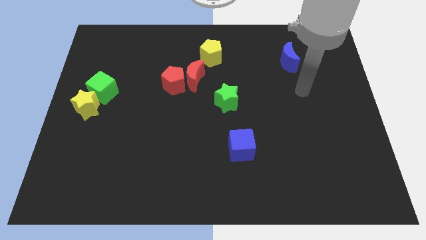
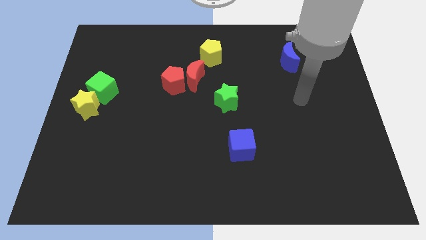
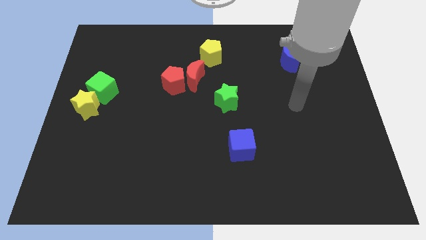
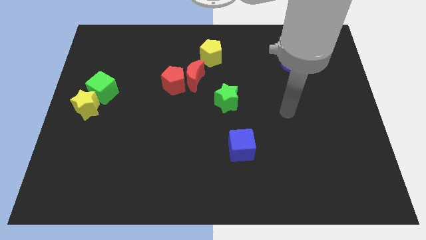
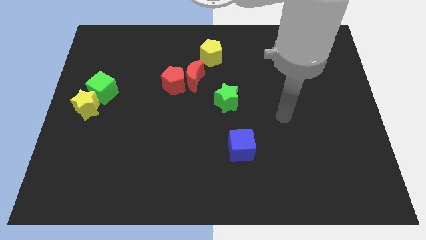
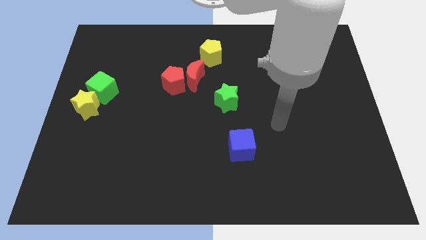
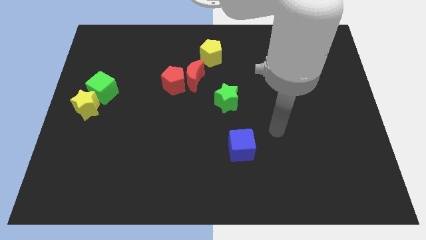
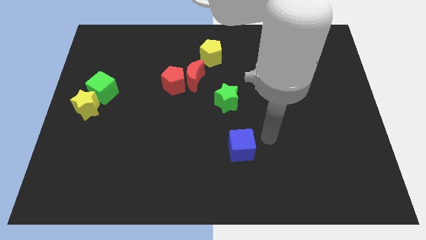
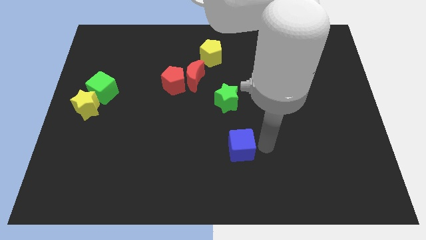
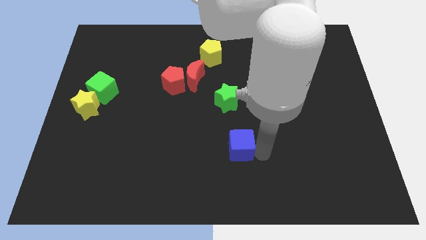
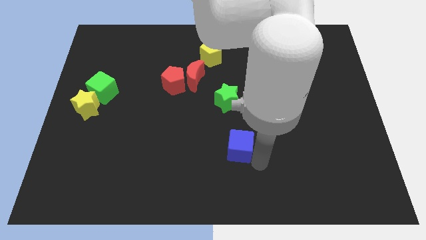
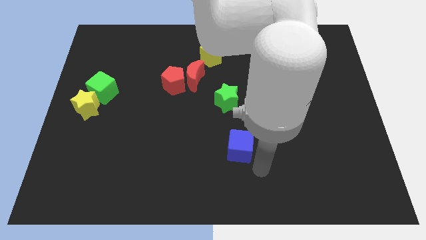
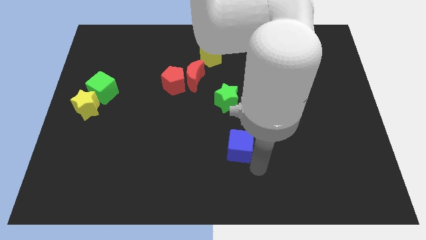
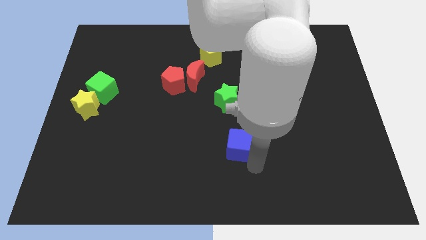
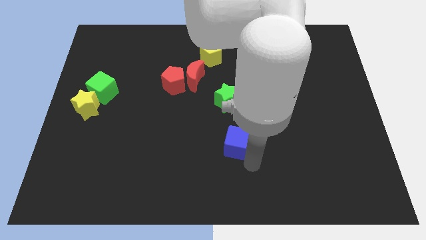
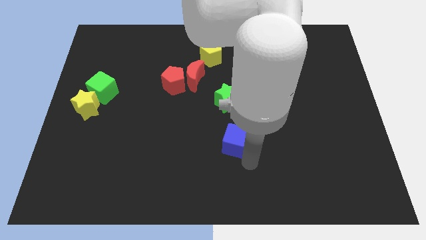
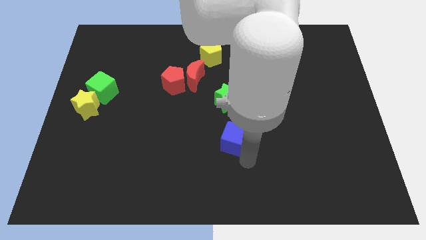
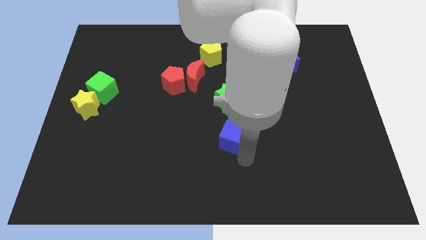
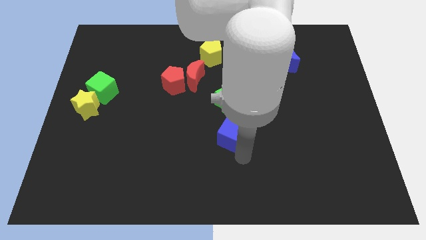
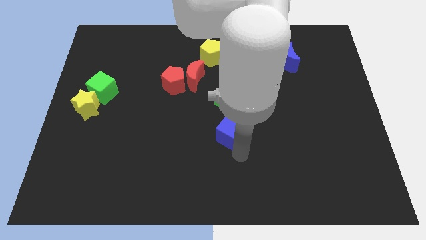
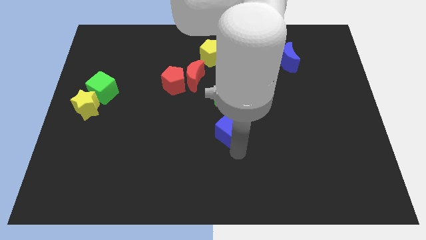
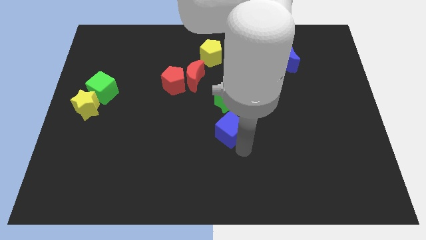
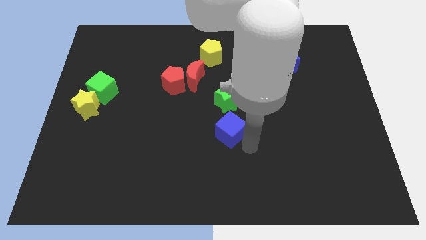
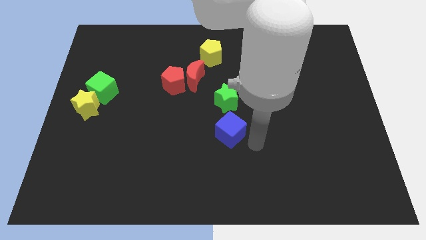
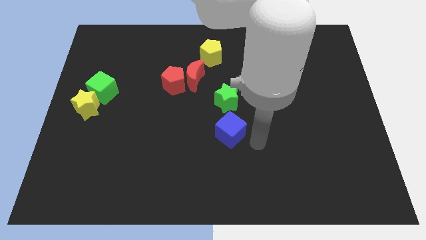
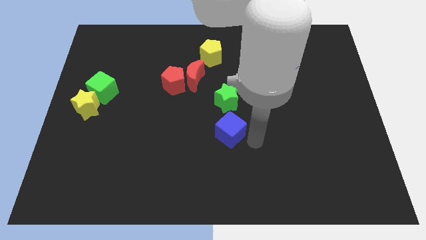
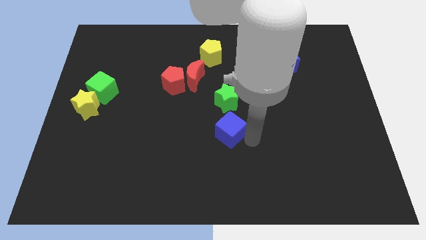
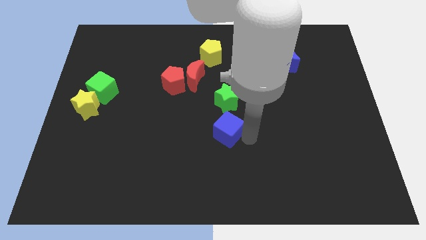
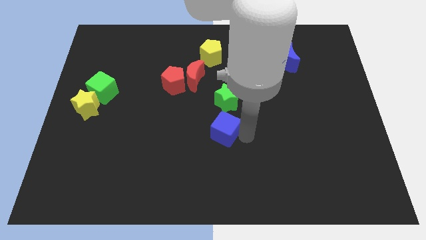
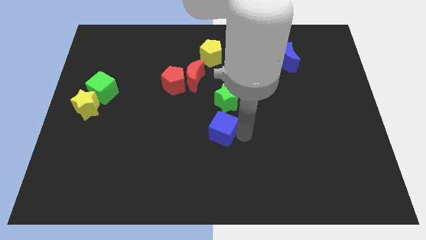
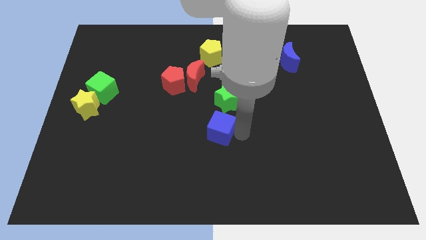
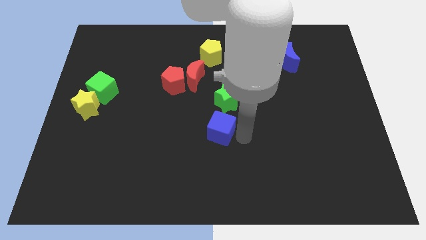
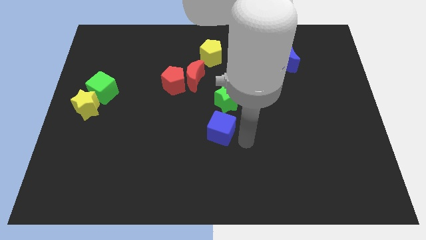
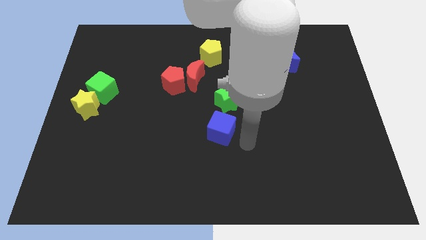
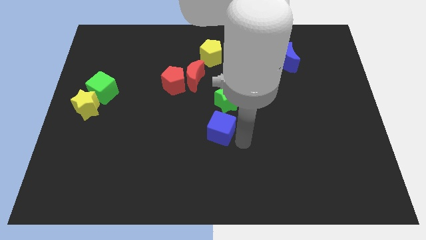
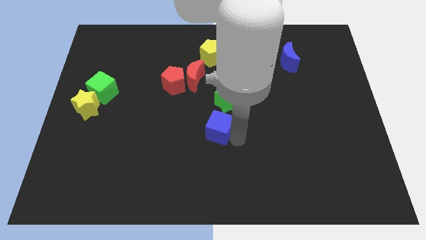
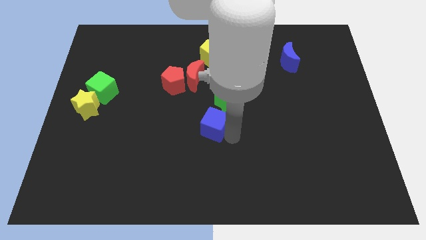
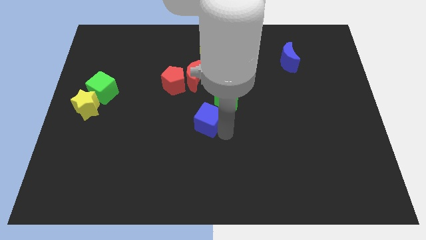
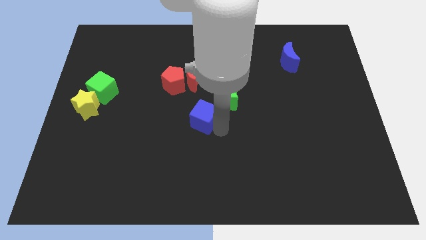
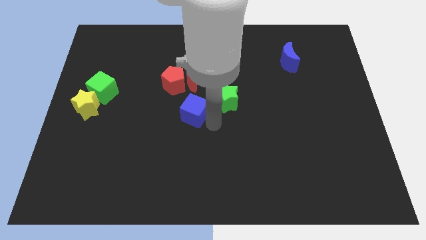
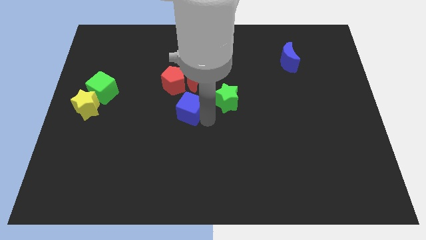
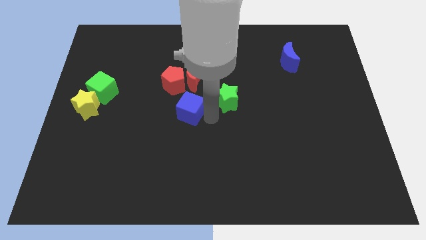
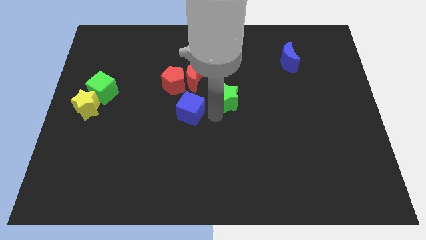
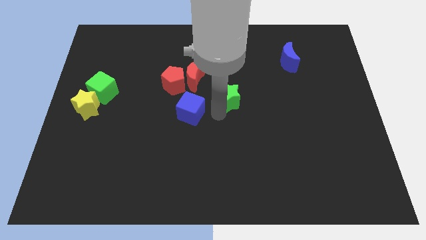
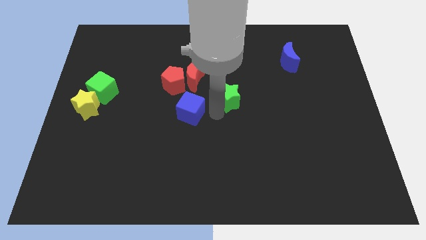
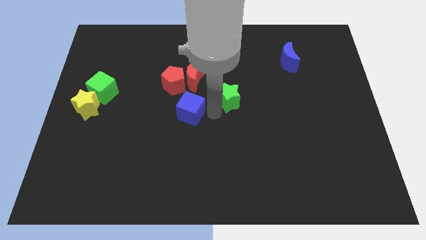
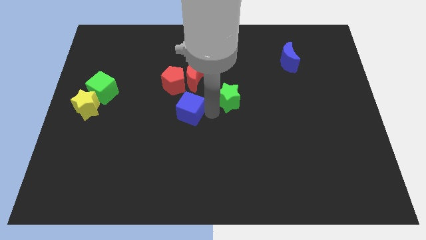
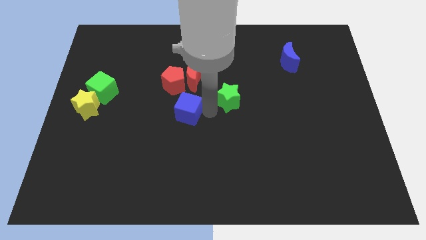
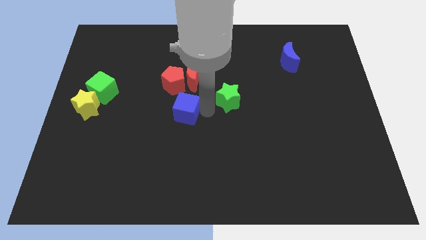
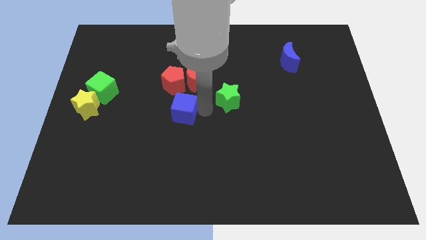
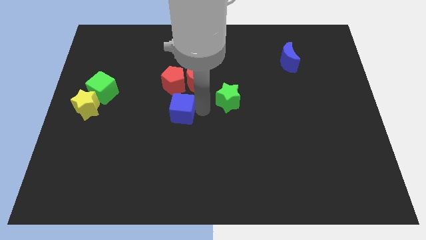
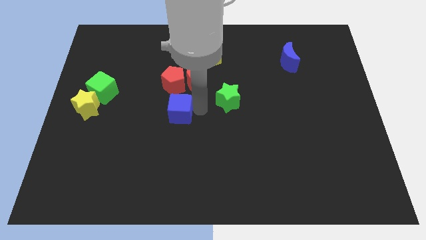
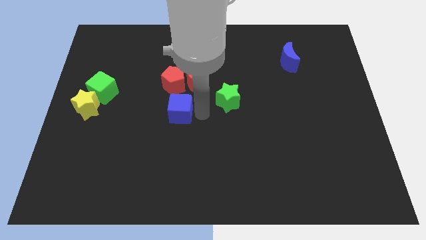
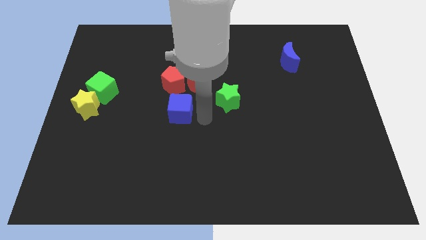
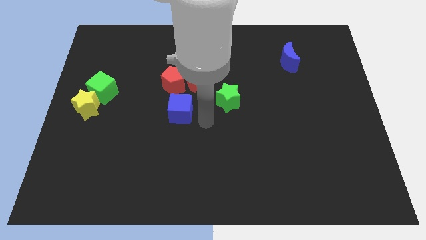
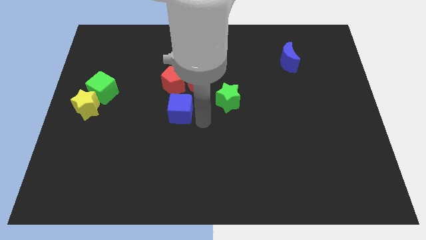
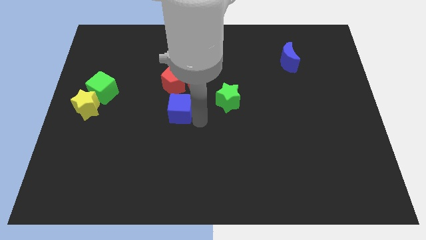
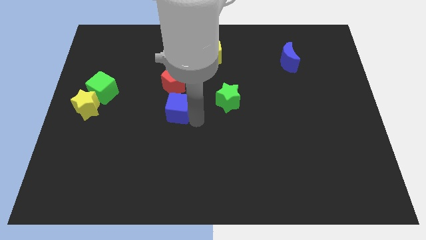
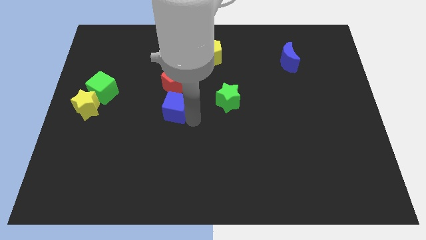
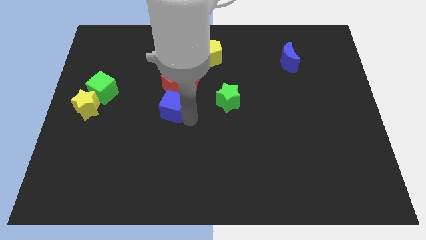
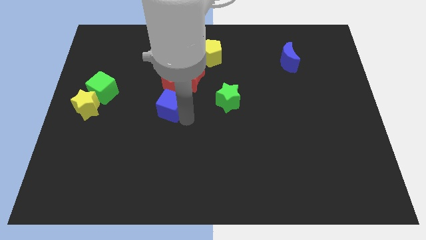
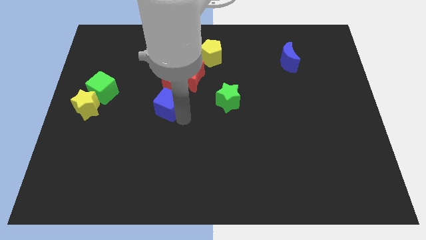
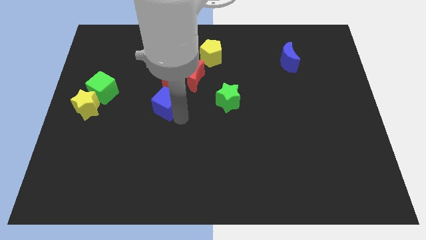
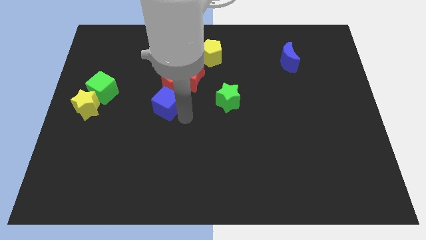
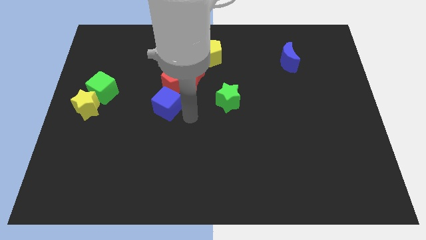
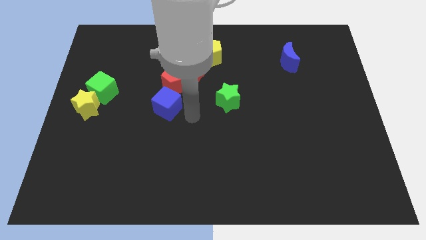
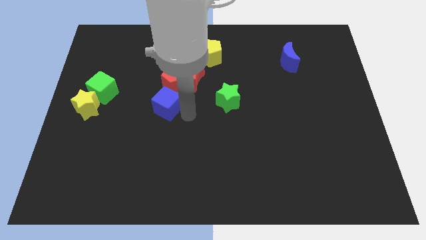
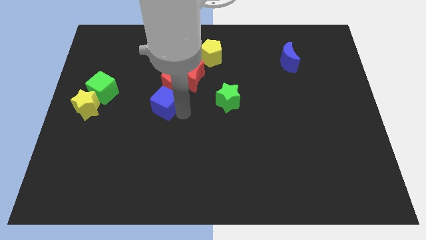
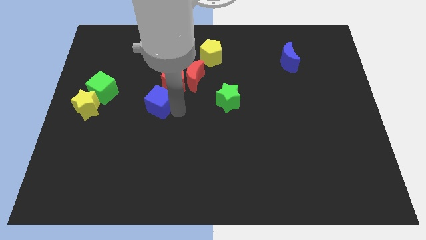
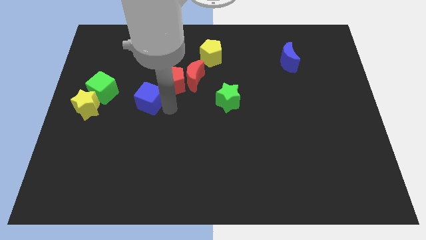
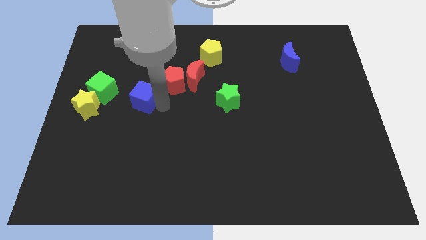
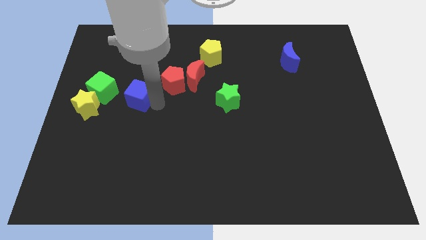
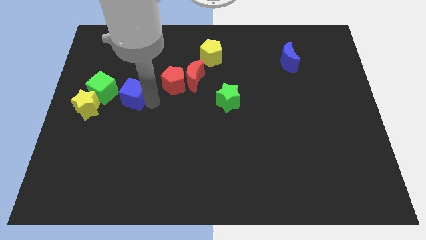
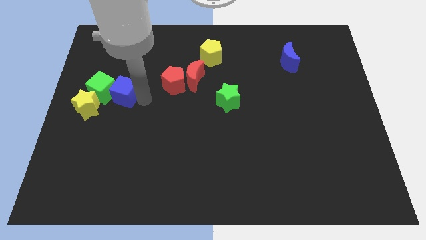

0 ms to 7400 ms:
slide the blue cube close to the green cube

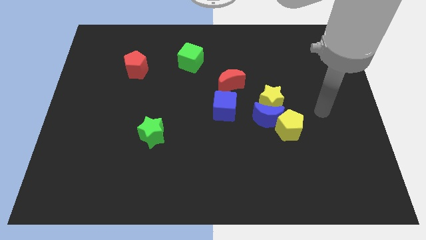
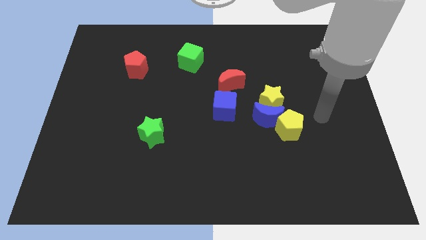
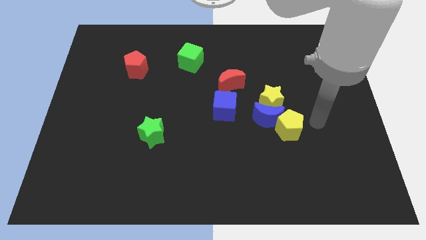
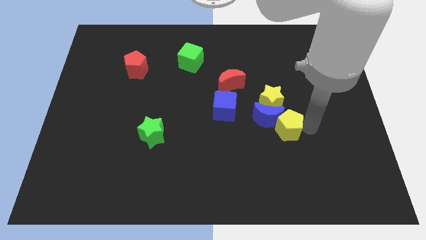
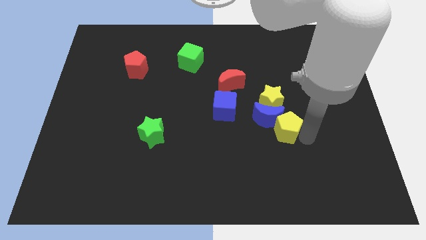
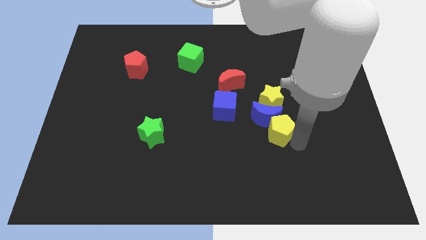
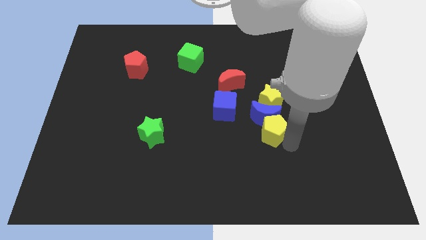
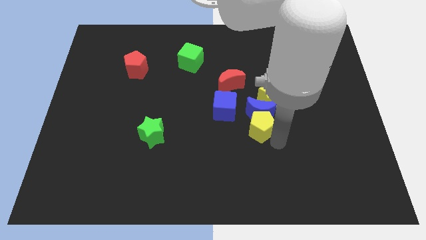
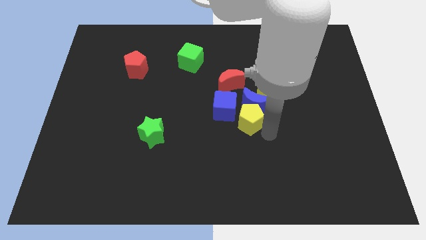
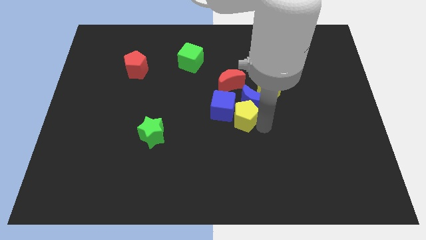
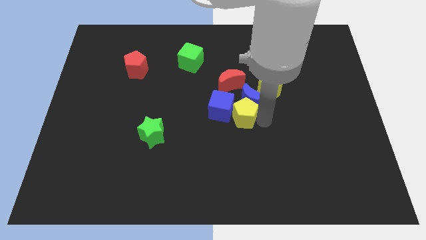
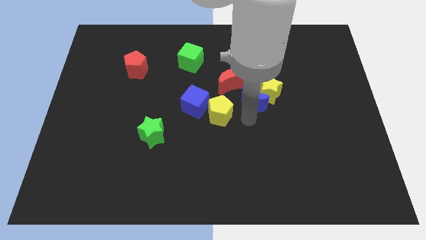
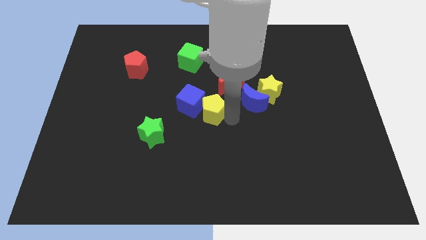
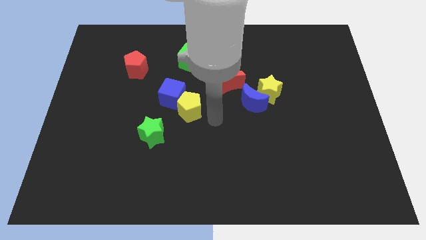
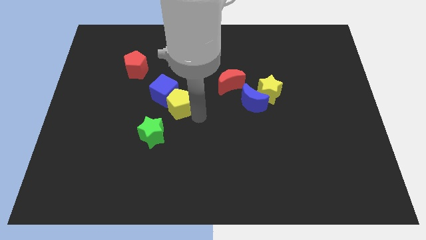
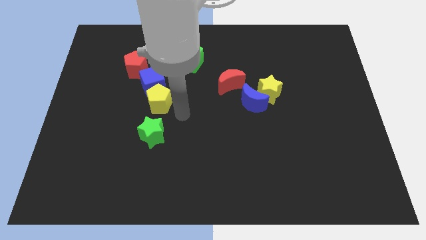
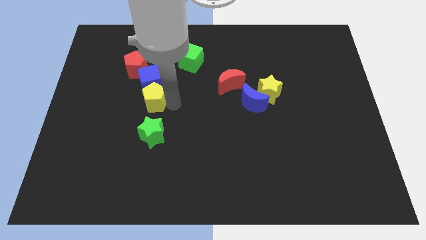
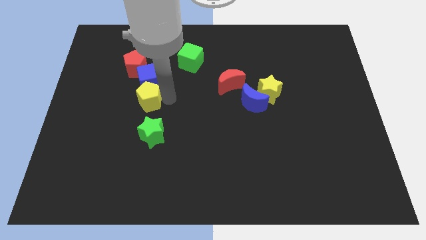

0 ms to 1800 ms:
put the blue cube close to the red pentagon
